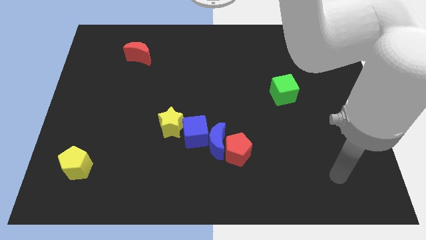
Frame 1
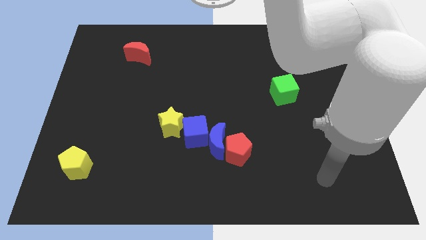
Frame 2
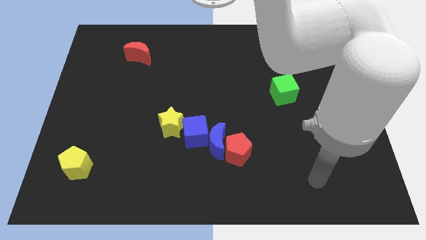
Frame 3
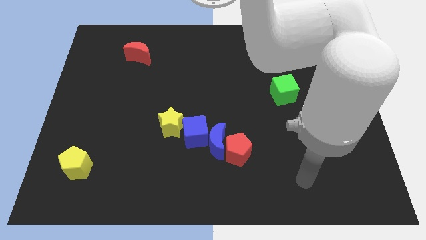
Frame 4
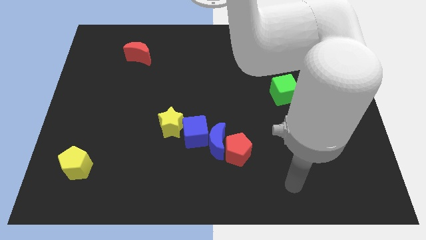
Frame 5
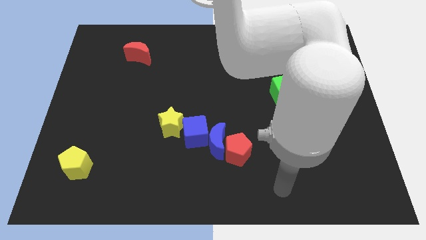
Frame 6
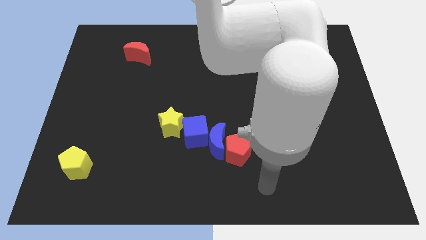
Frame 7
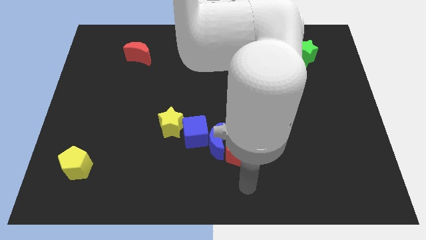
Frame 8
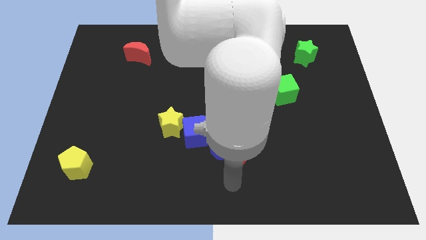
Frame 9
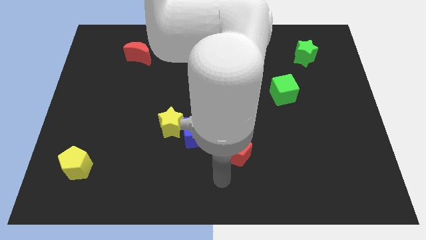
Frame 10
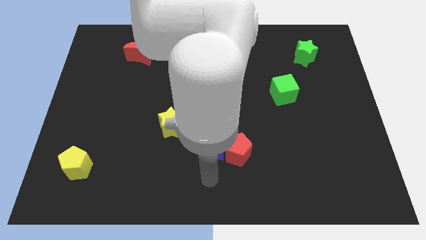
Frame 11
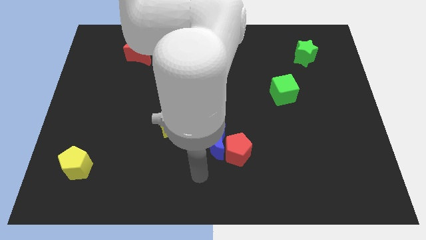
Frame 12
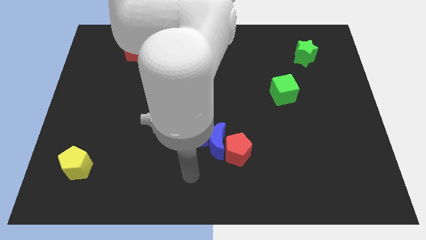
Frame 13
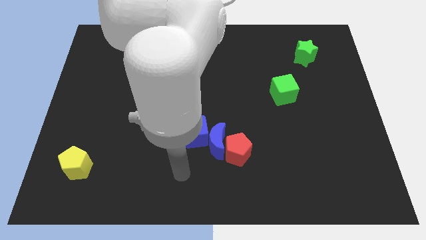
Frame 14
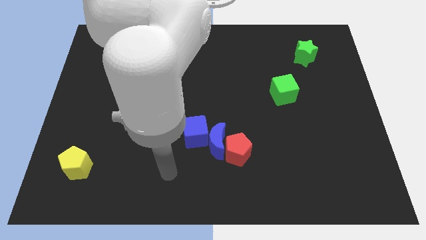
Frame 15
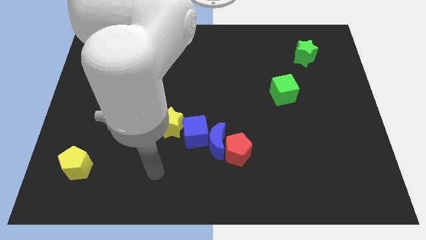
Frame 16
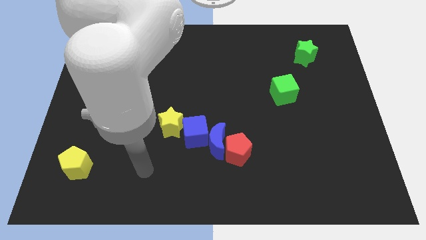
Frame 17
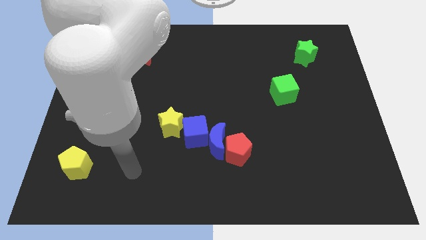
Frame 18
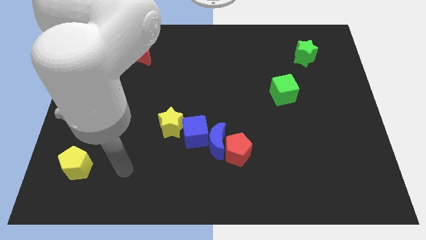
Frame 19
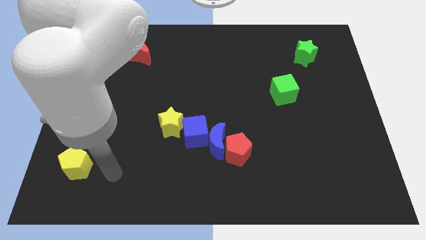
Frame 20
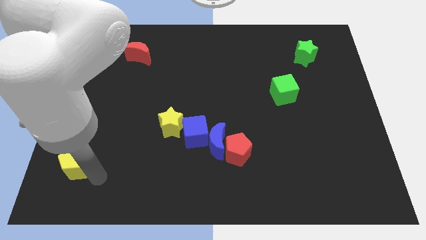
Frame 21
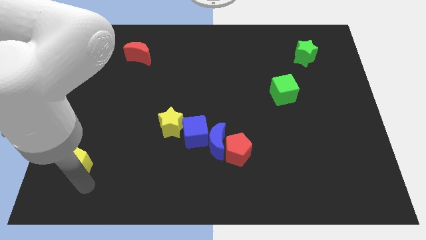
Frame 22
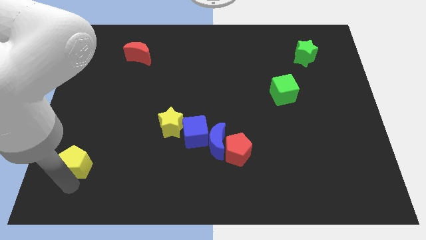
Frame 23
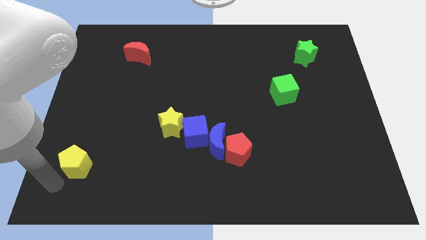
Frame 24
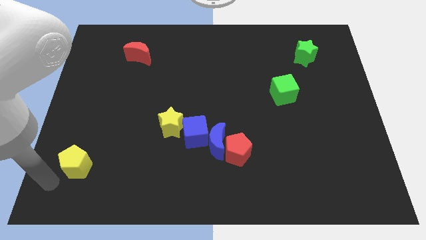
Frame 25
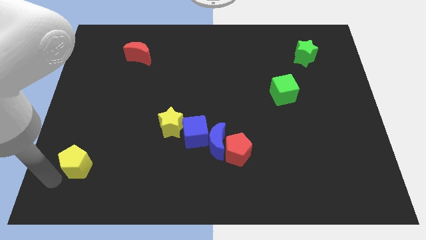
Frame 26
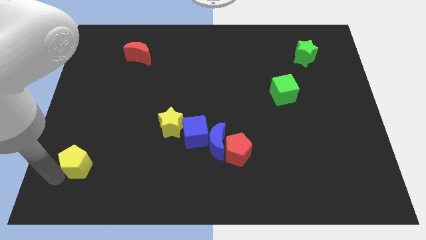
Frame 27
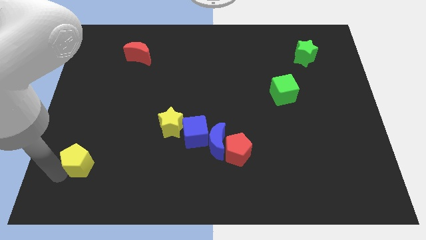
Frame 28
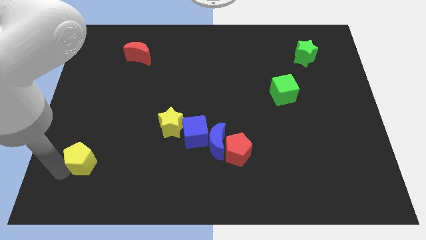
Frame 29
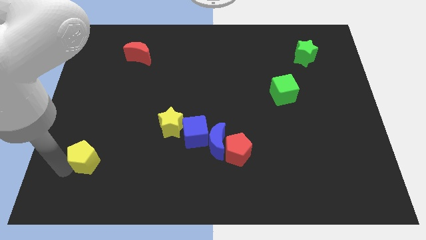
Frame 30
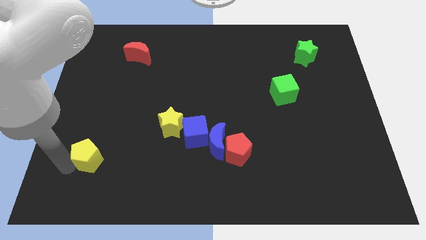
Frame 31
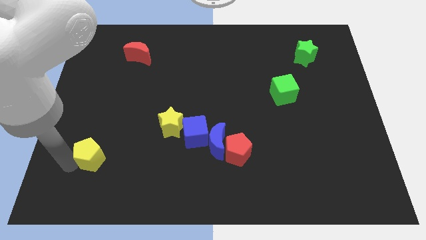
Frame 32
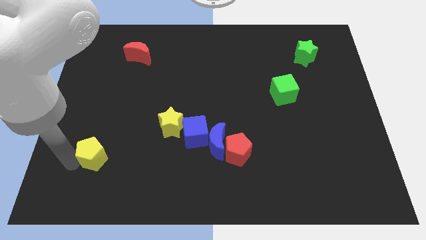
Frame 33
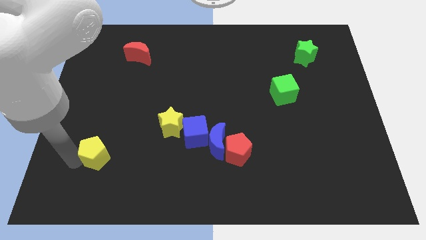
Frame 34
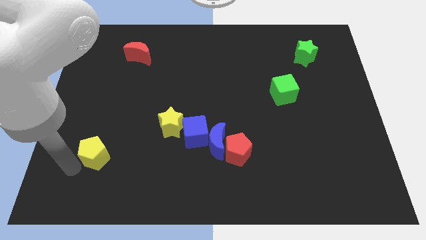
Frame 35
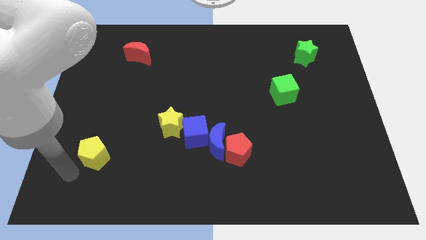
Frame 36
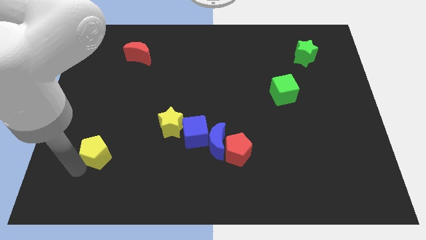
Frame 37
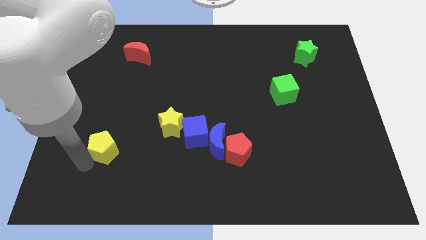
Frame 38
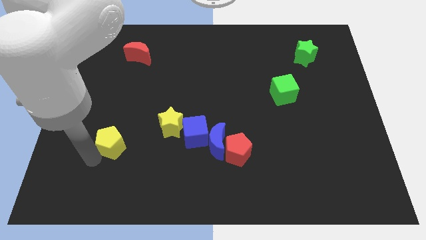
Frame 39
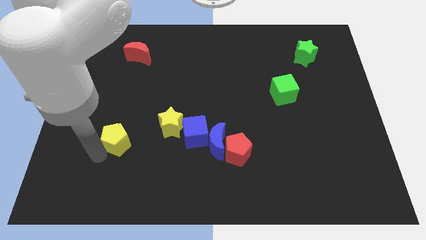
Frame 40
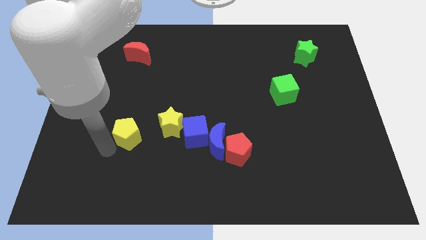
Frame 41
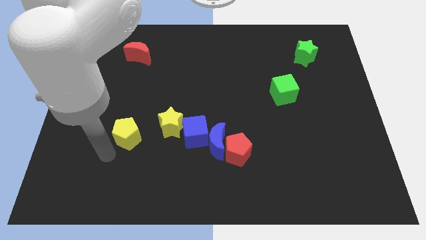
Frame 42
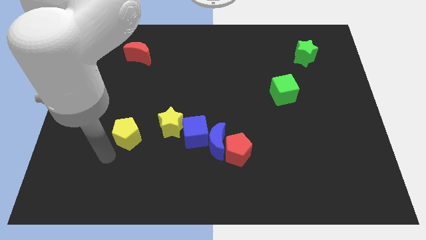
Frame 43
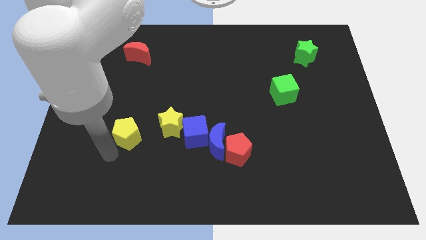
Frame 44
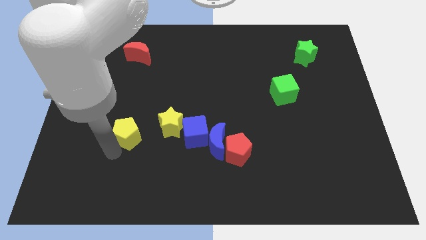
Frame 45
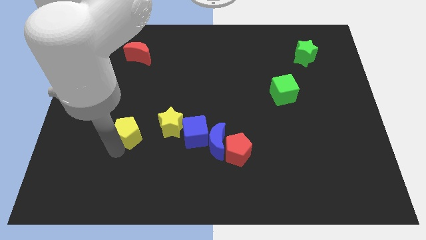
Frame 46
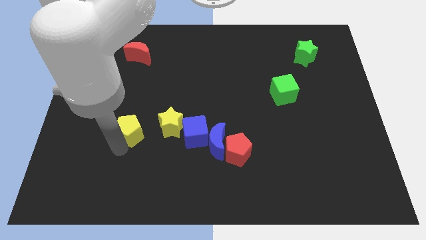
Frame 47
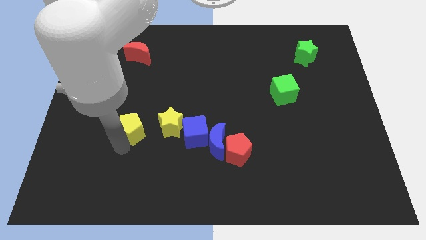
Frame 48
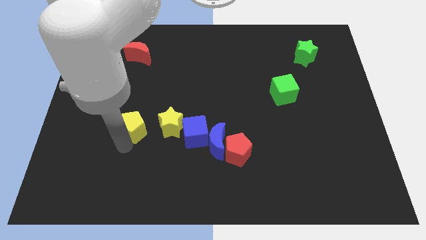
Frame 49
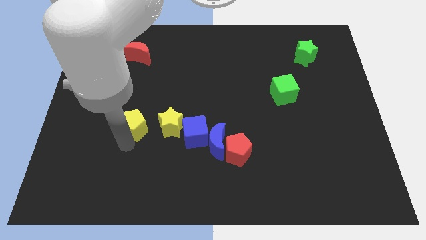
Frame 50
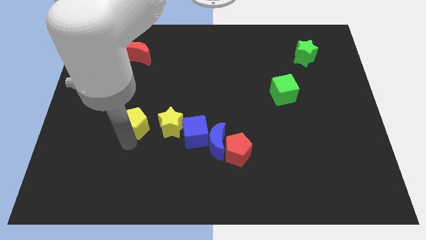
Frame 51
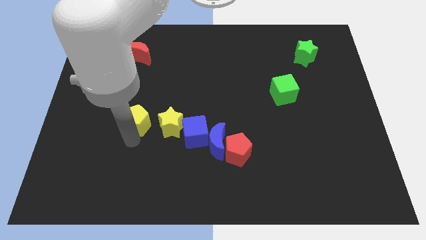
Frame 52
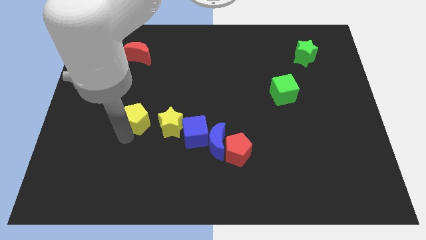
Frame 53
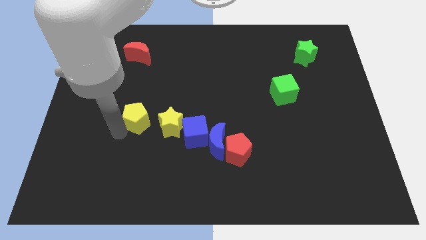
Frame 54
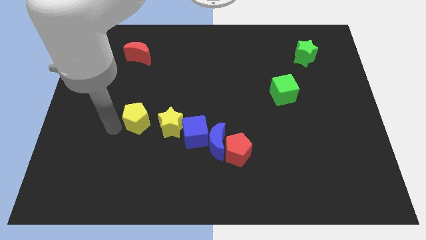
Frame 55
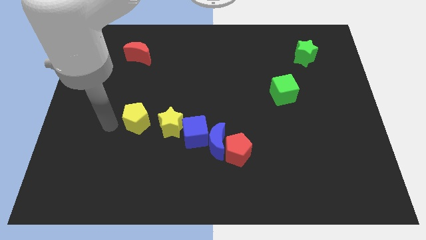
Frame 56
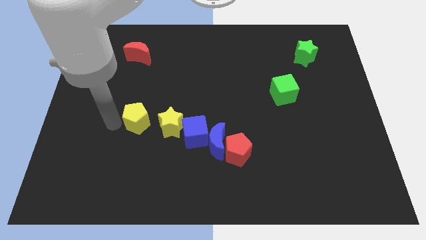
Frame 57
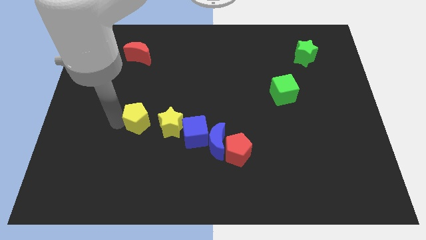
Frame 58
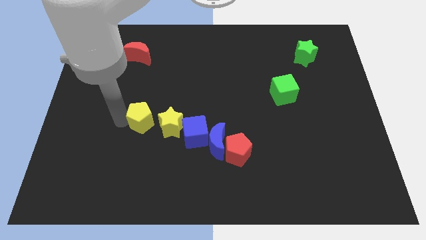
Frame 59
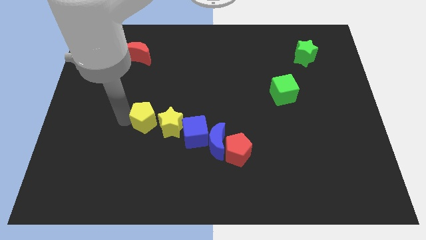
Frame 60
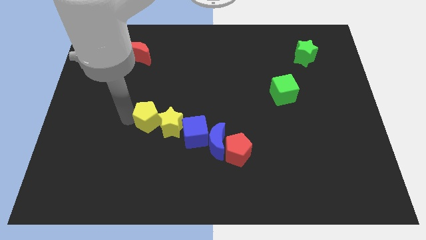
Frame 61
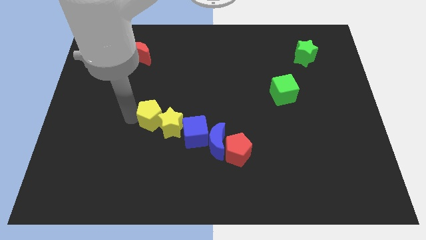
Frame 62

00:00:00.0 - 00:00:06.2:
put the yellow pentagon diagonally up and to the left of the blue cube
